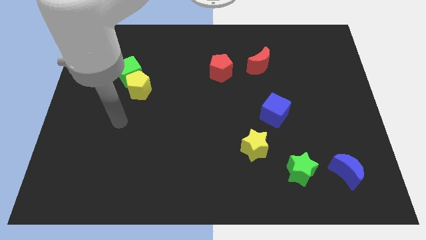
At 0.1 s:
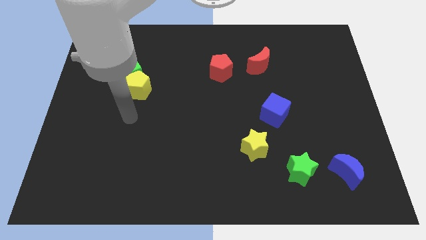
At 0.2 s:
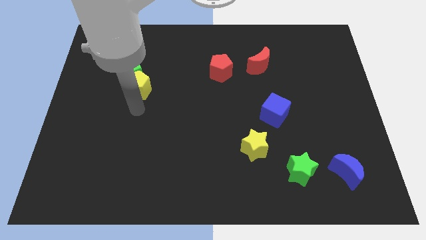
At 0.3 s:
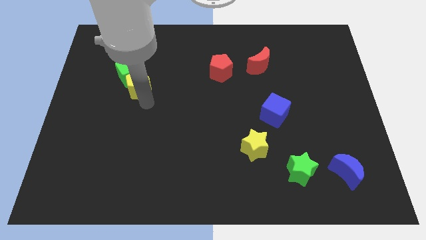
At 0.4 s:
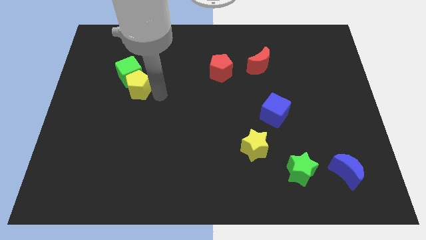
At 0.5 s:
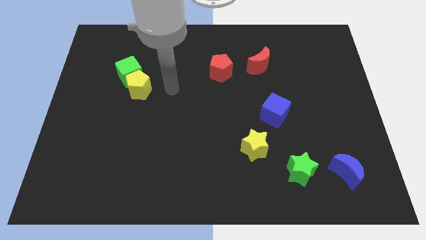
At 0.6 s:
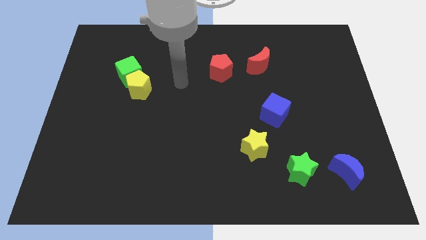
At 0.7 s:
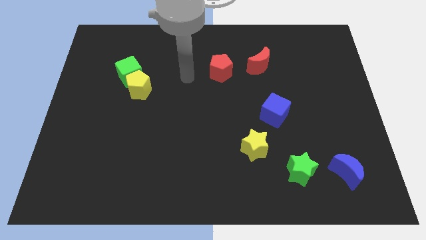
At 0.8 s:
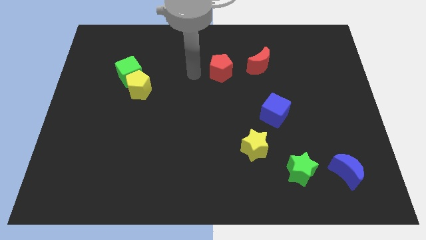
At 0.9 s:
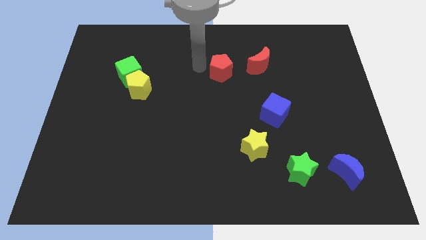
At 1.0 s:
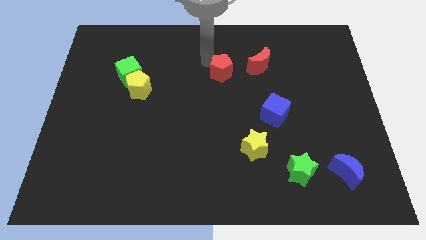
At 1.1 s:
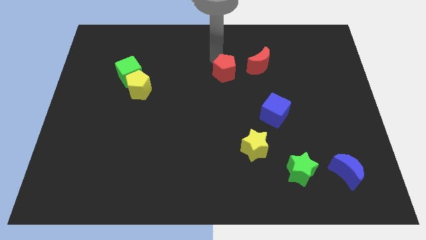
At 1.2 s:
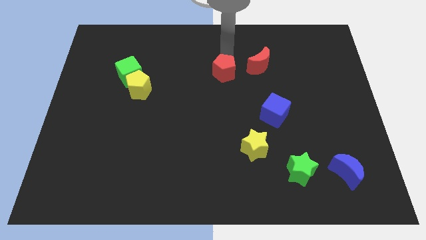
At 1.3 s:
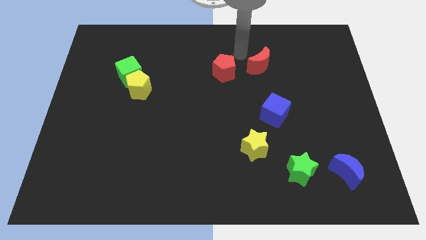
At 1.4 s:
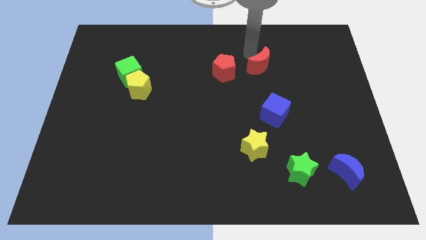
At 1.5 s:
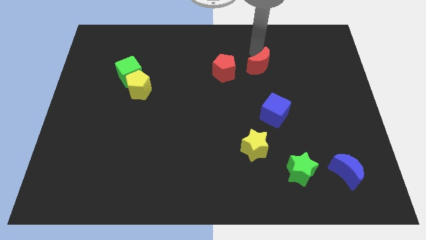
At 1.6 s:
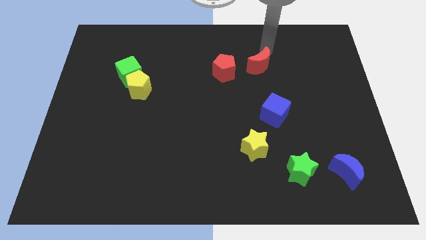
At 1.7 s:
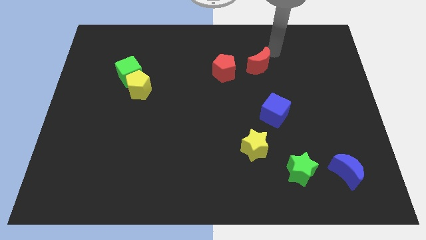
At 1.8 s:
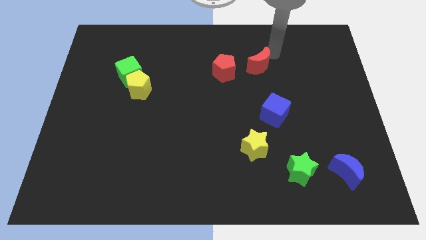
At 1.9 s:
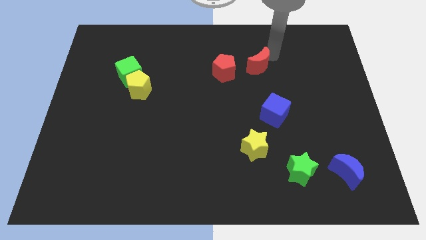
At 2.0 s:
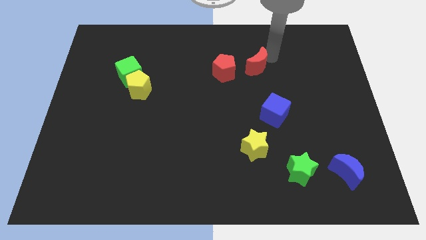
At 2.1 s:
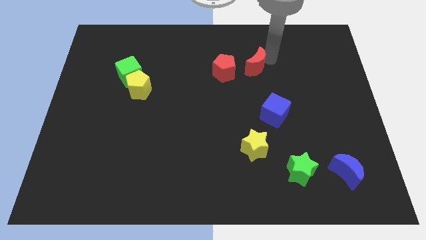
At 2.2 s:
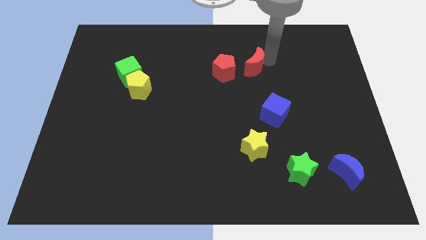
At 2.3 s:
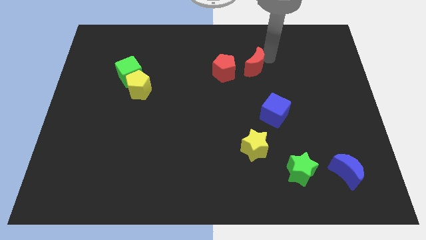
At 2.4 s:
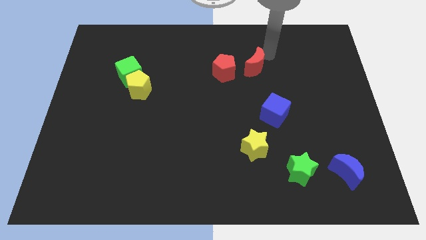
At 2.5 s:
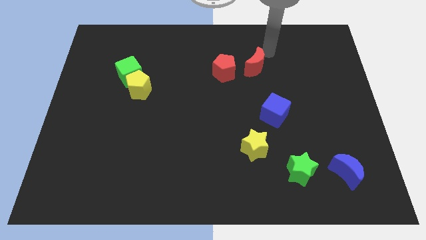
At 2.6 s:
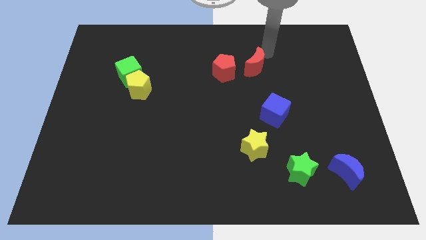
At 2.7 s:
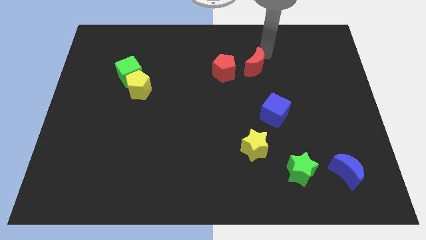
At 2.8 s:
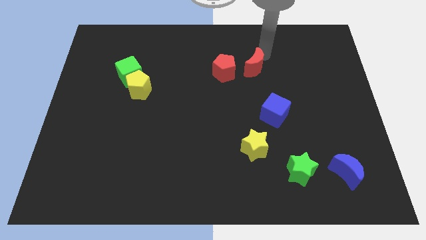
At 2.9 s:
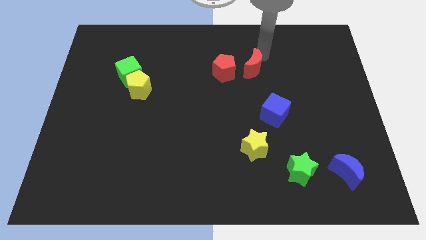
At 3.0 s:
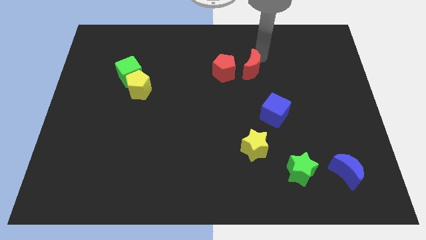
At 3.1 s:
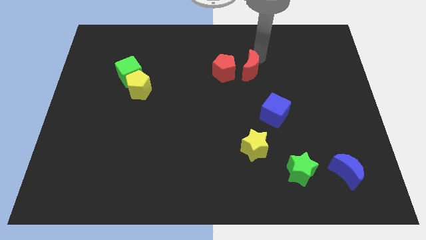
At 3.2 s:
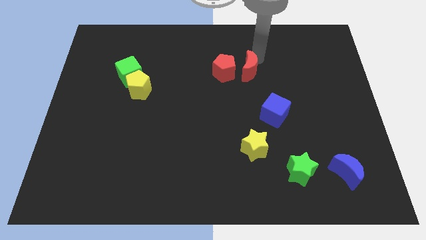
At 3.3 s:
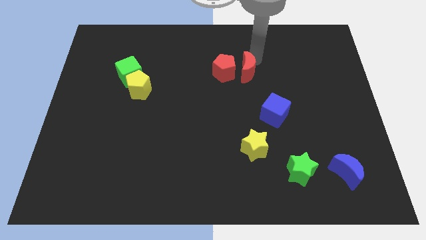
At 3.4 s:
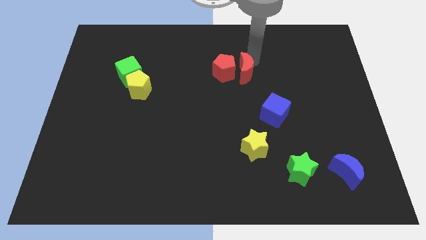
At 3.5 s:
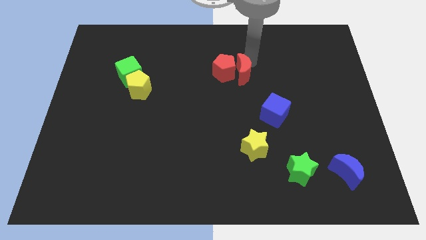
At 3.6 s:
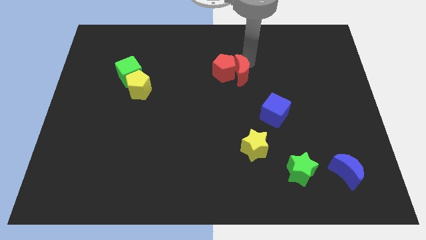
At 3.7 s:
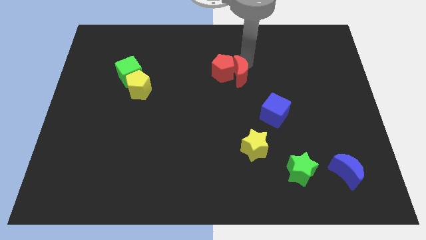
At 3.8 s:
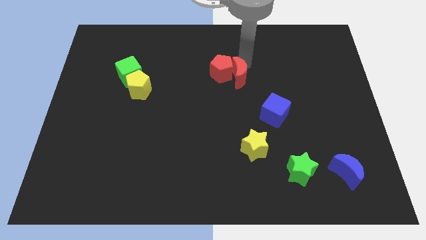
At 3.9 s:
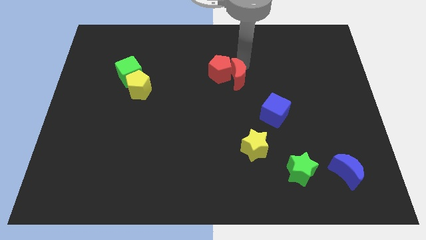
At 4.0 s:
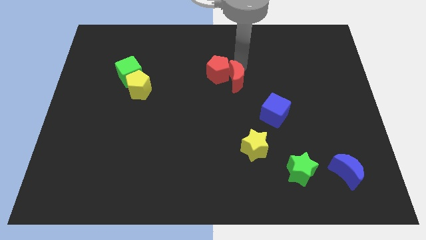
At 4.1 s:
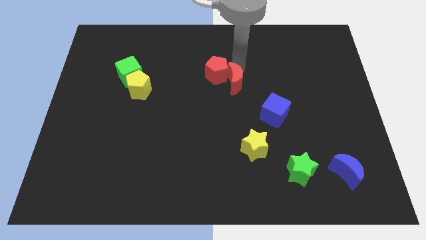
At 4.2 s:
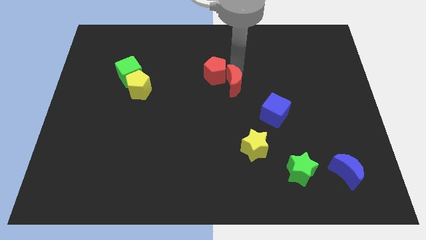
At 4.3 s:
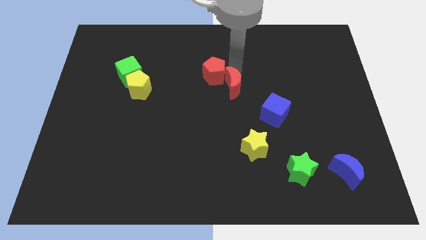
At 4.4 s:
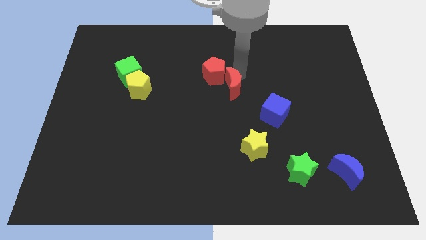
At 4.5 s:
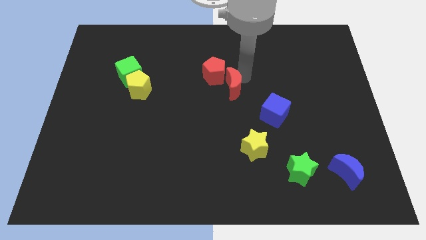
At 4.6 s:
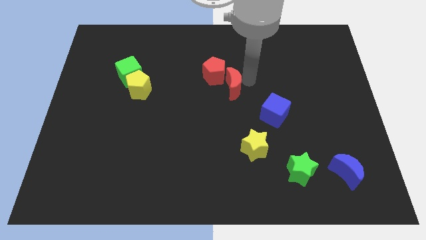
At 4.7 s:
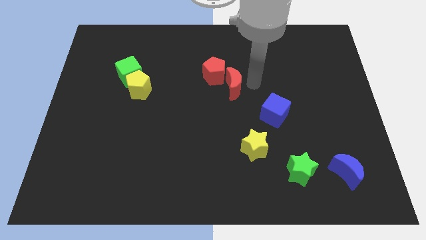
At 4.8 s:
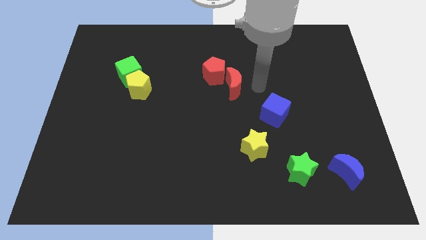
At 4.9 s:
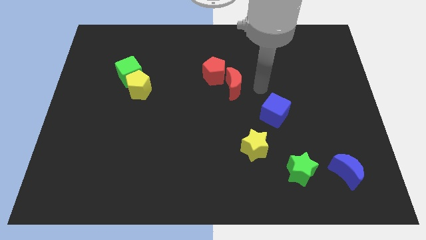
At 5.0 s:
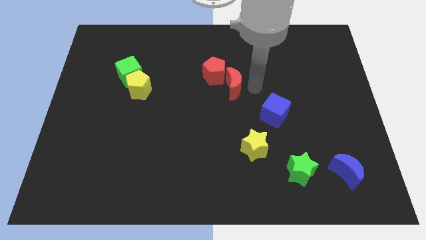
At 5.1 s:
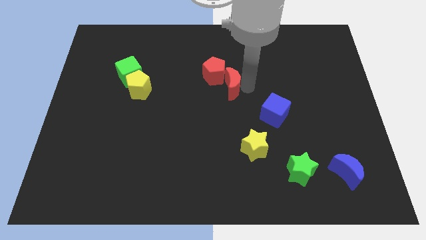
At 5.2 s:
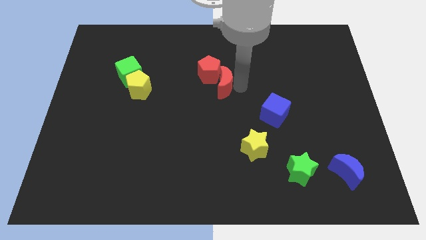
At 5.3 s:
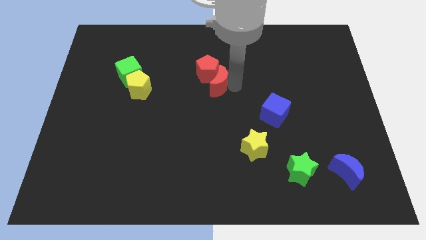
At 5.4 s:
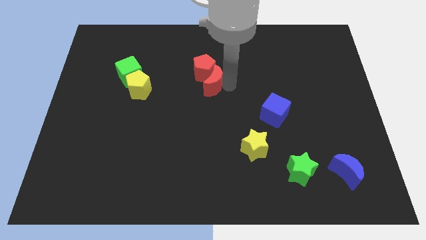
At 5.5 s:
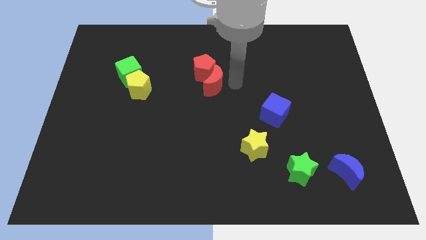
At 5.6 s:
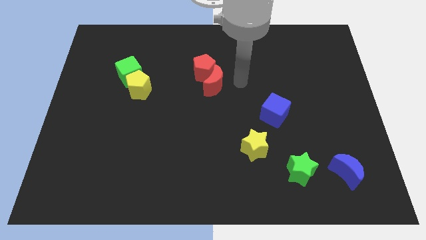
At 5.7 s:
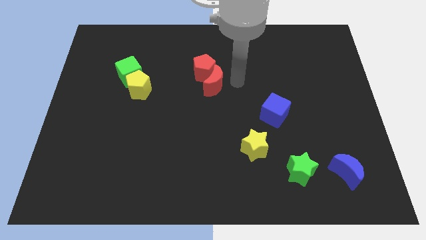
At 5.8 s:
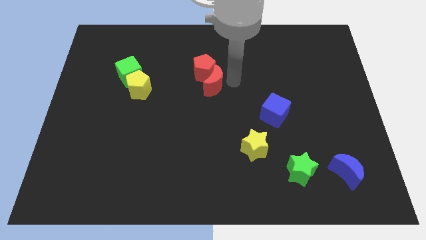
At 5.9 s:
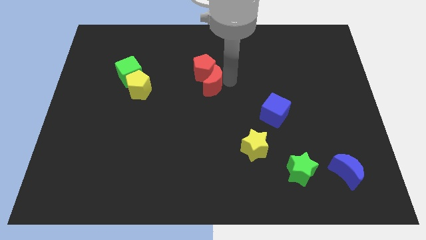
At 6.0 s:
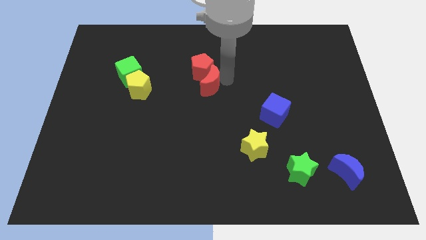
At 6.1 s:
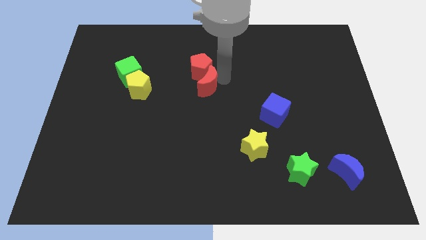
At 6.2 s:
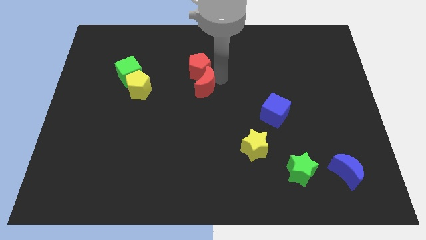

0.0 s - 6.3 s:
push the red moon right of the yellow pentagon
